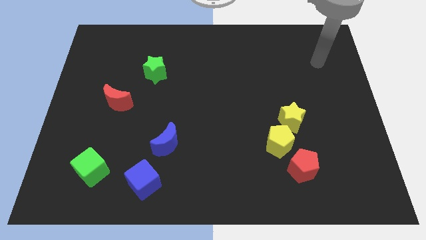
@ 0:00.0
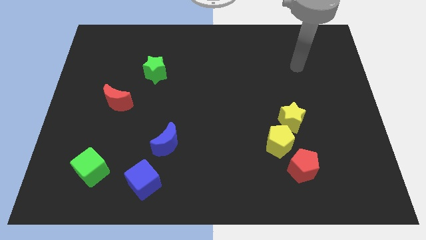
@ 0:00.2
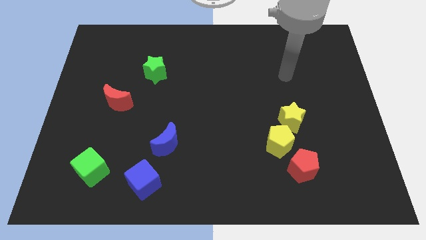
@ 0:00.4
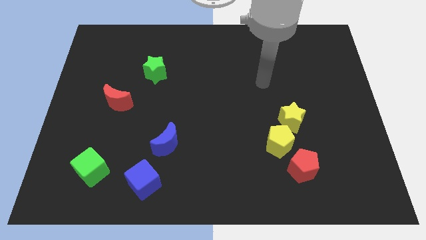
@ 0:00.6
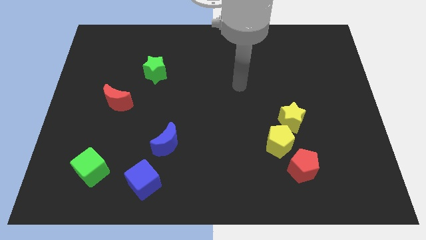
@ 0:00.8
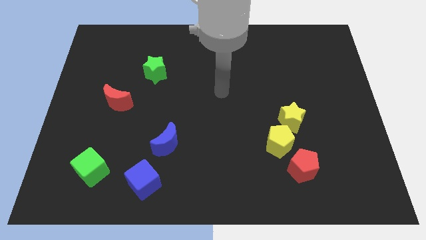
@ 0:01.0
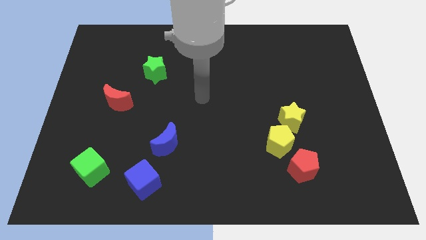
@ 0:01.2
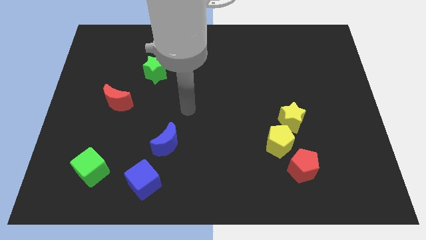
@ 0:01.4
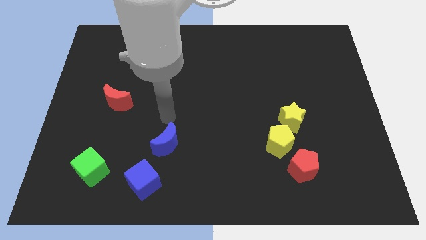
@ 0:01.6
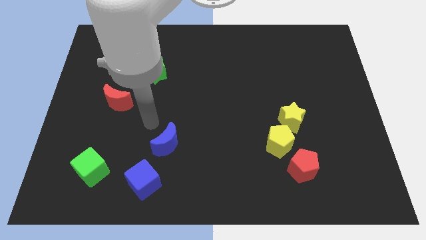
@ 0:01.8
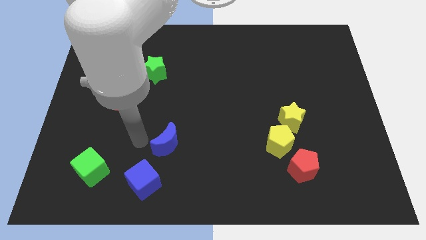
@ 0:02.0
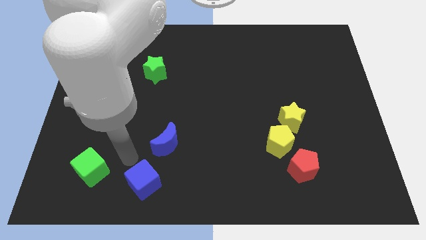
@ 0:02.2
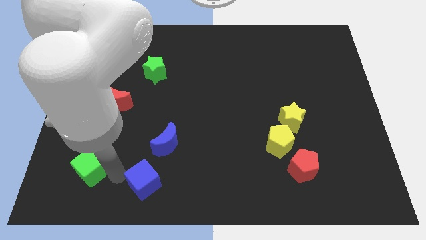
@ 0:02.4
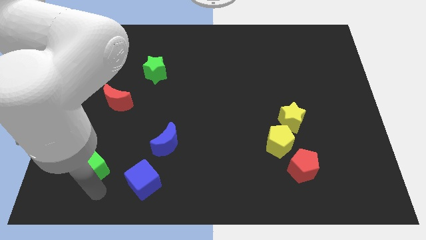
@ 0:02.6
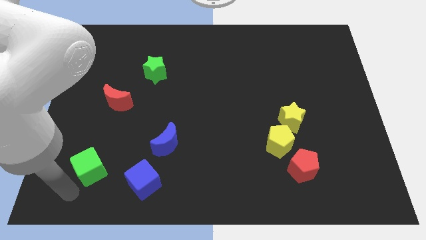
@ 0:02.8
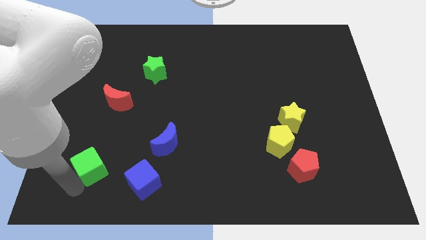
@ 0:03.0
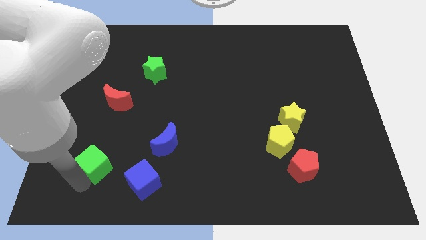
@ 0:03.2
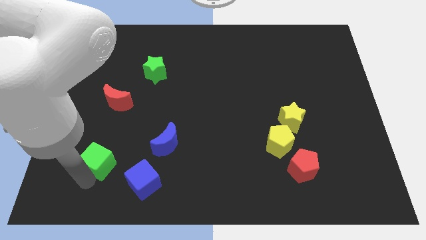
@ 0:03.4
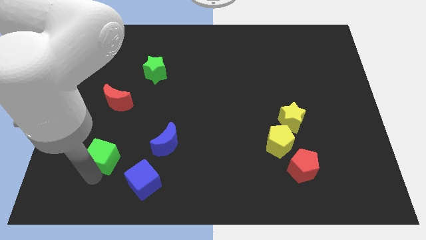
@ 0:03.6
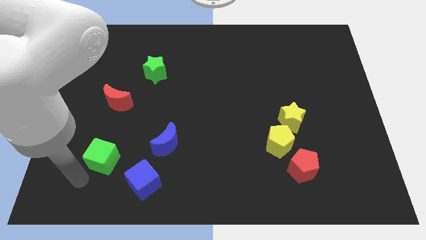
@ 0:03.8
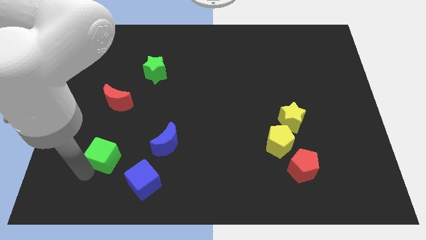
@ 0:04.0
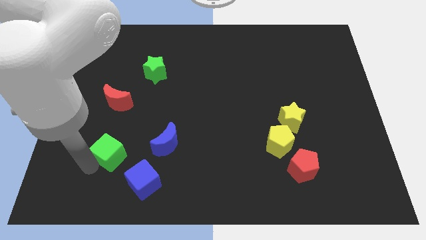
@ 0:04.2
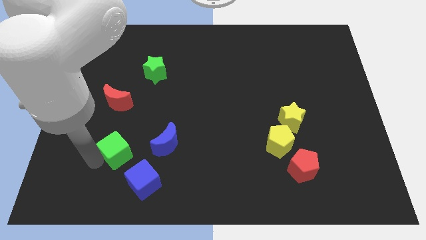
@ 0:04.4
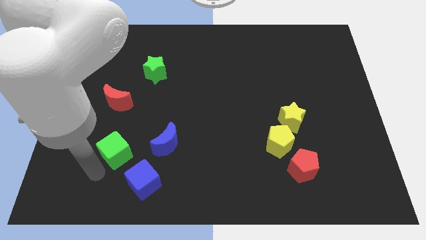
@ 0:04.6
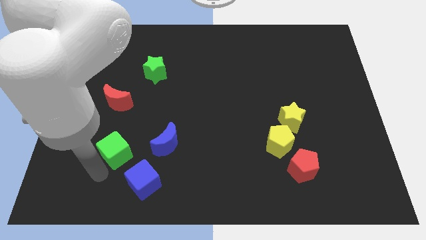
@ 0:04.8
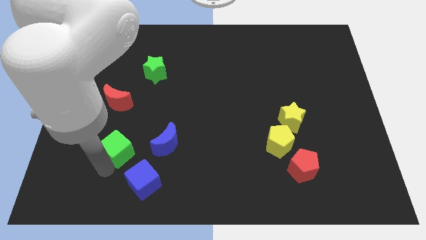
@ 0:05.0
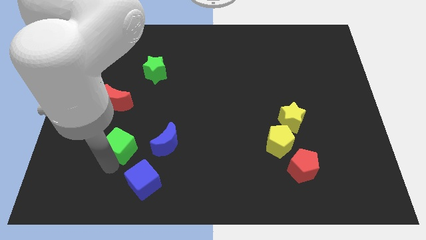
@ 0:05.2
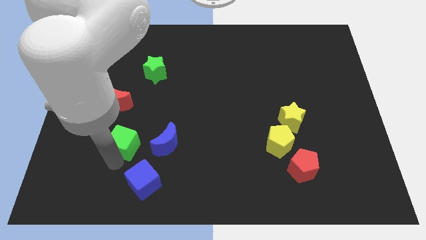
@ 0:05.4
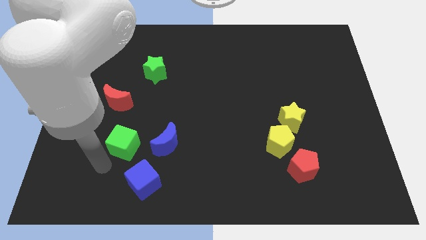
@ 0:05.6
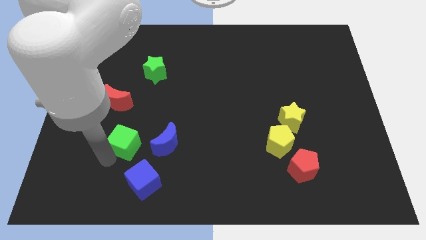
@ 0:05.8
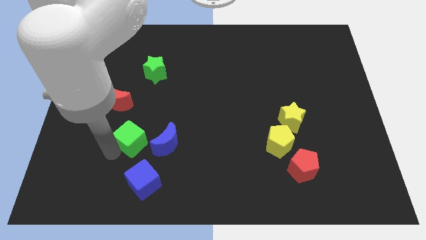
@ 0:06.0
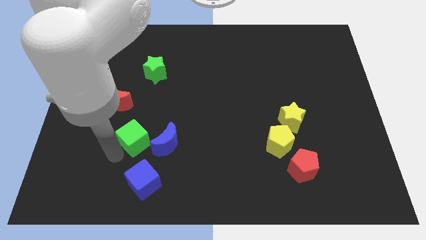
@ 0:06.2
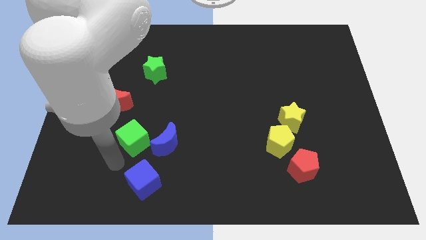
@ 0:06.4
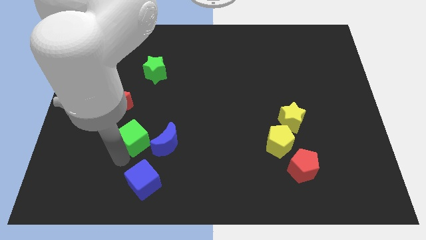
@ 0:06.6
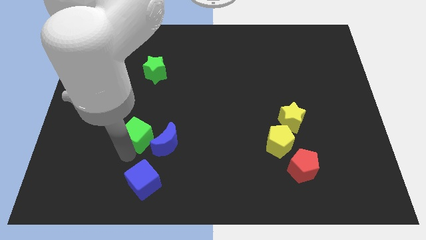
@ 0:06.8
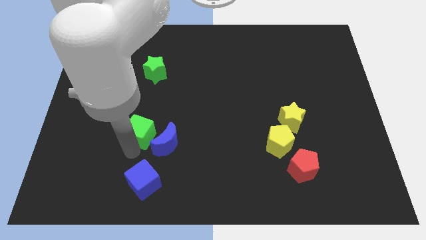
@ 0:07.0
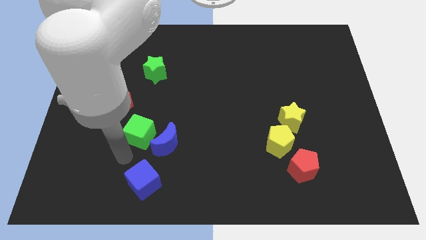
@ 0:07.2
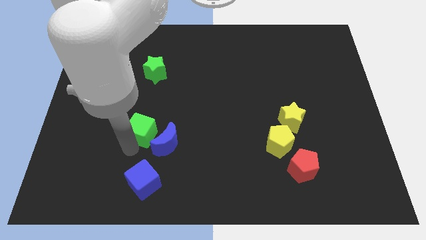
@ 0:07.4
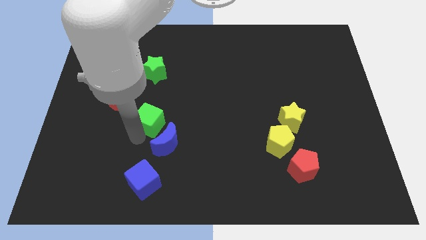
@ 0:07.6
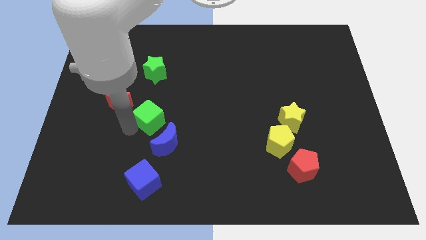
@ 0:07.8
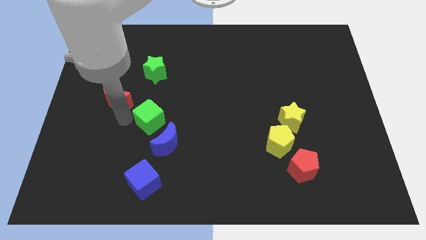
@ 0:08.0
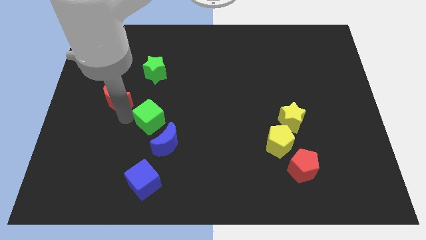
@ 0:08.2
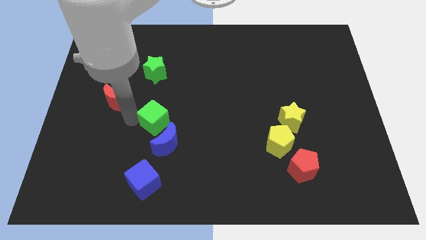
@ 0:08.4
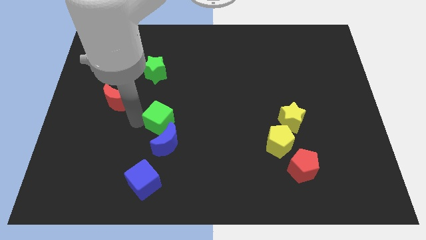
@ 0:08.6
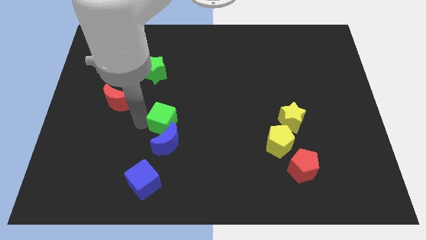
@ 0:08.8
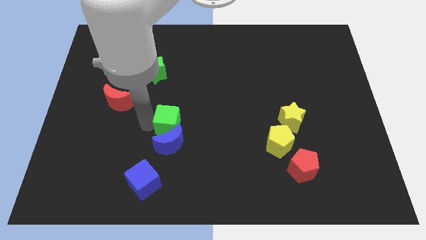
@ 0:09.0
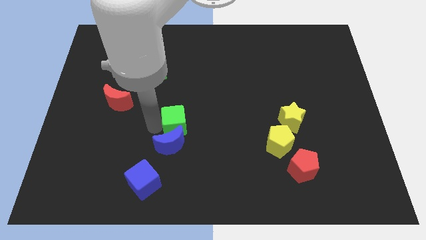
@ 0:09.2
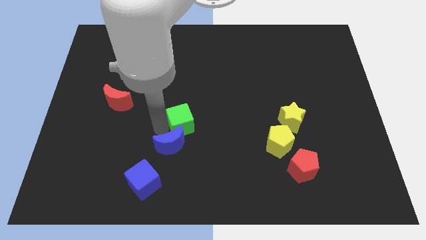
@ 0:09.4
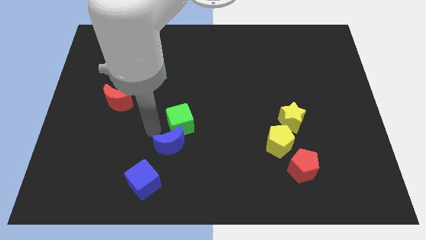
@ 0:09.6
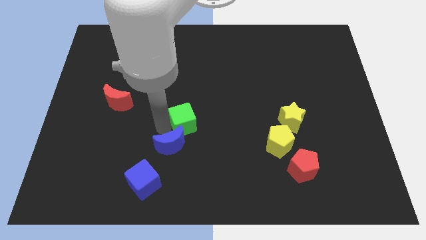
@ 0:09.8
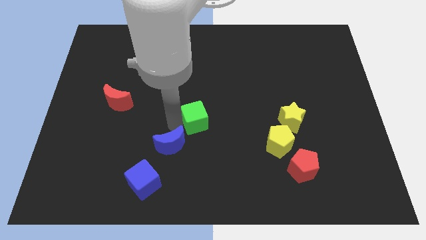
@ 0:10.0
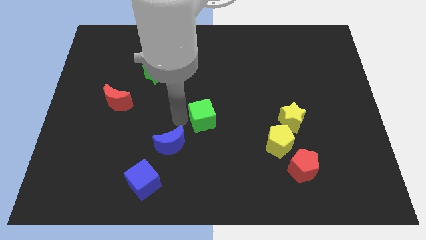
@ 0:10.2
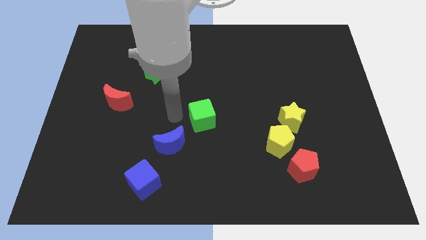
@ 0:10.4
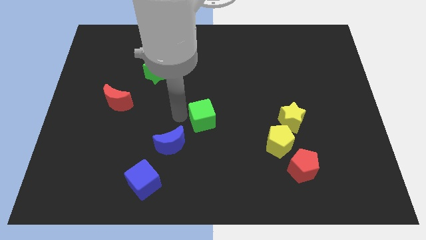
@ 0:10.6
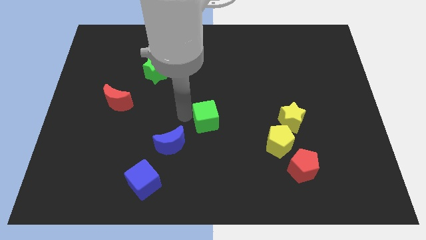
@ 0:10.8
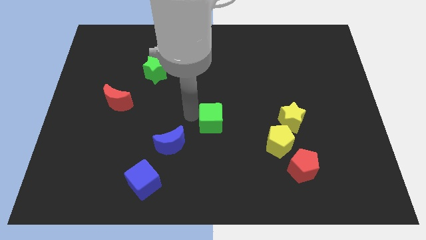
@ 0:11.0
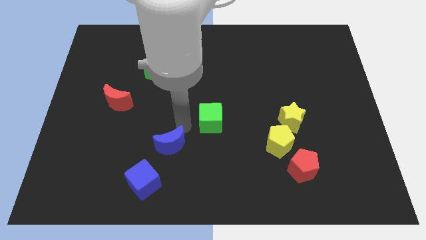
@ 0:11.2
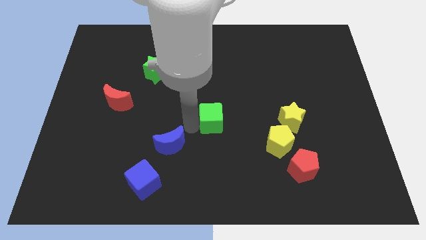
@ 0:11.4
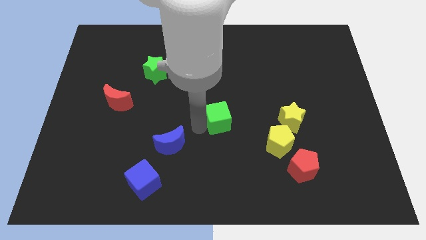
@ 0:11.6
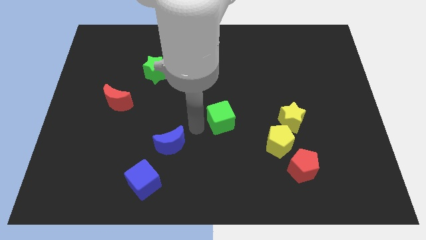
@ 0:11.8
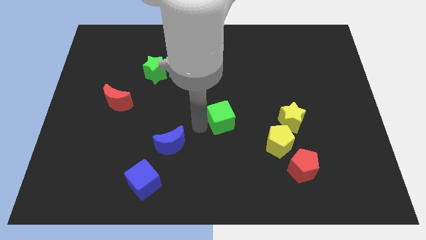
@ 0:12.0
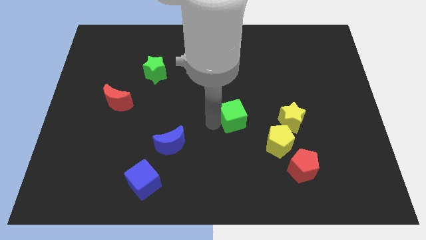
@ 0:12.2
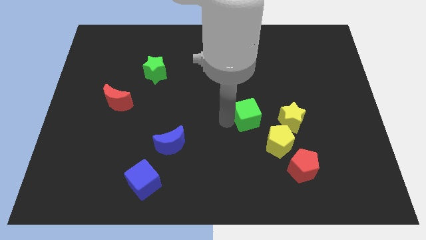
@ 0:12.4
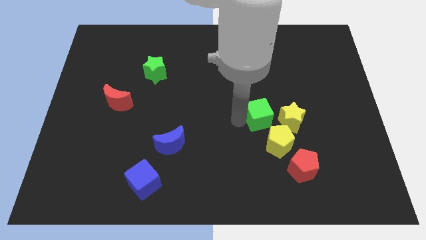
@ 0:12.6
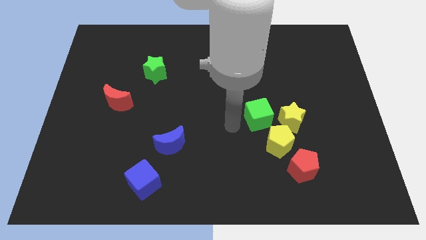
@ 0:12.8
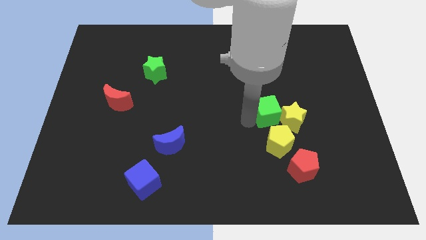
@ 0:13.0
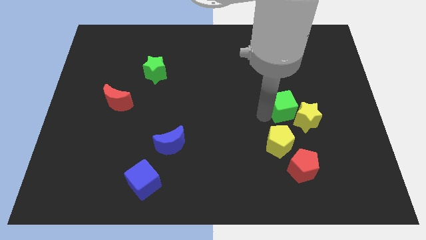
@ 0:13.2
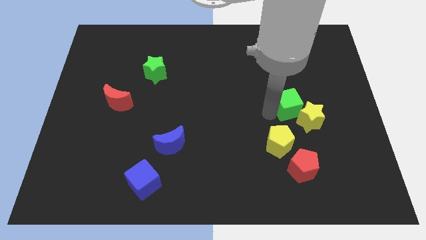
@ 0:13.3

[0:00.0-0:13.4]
slide the green cube to the top right side of the yellow pentagon
